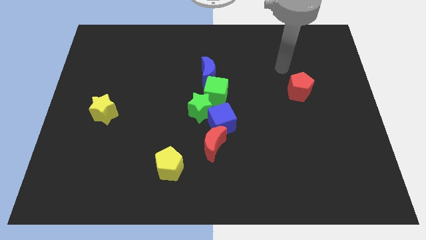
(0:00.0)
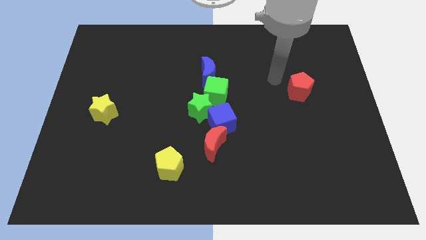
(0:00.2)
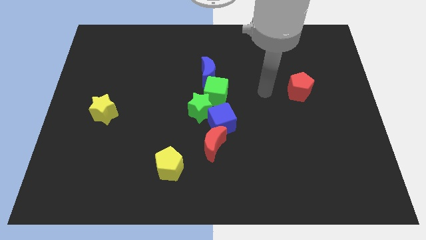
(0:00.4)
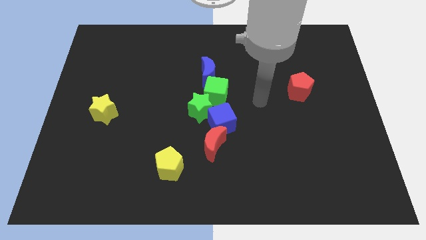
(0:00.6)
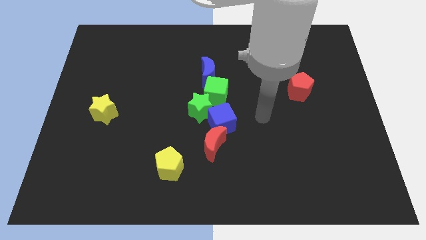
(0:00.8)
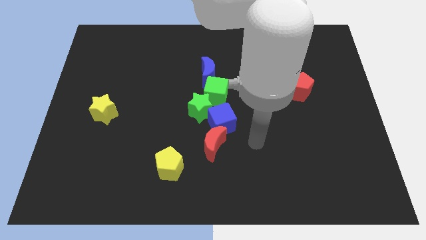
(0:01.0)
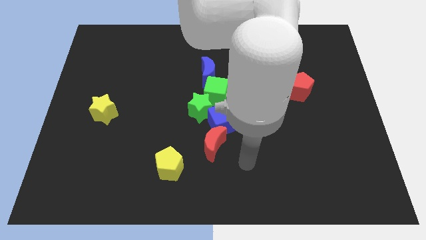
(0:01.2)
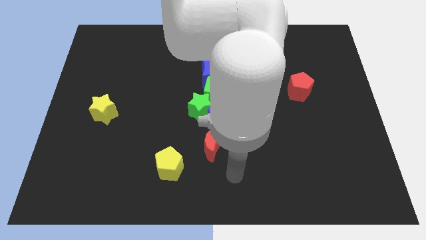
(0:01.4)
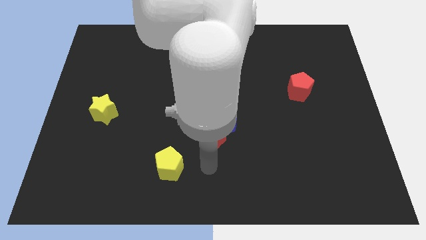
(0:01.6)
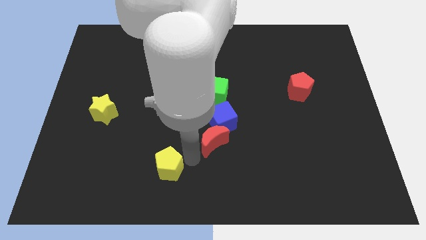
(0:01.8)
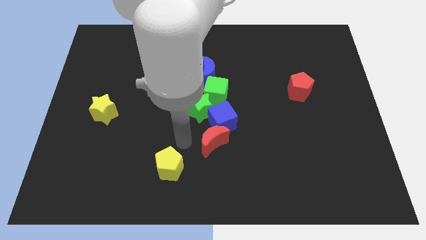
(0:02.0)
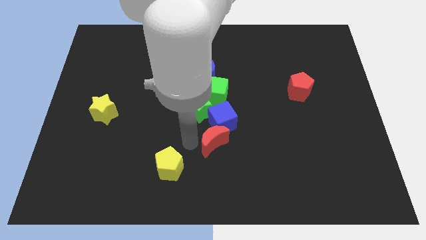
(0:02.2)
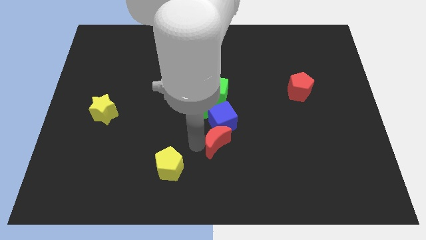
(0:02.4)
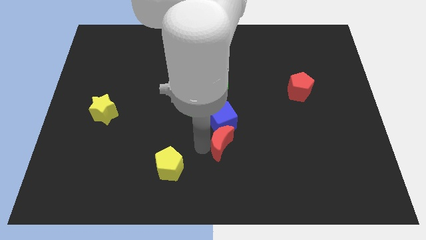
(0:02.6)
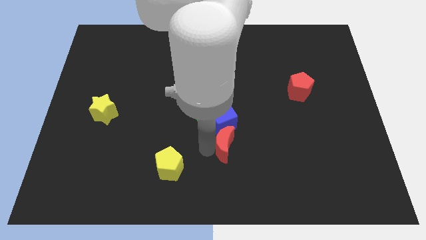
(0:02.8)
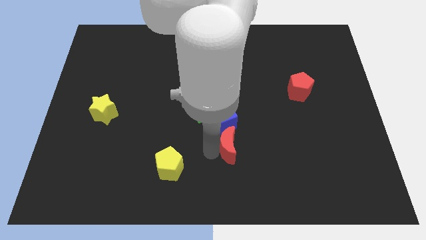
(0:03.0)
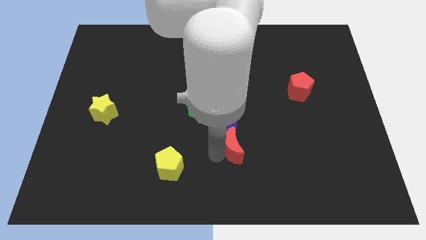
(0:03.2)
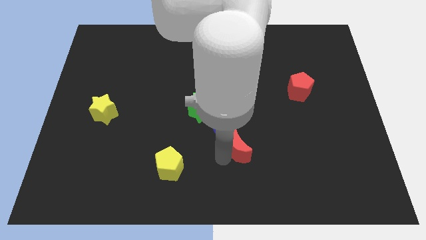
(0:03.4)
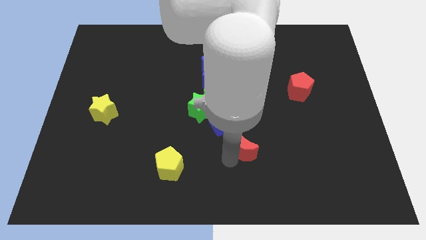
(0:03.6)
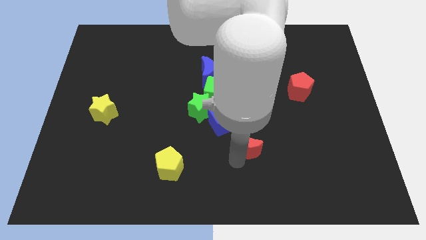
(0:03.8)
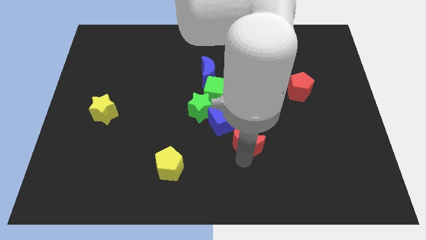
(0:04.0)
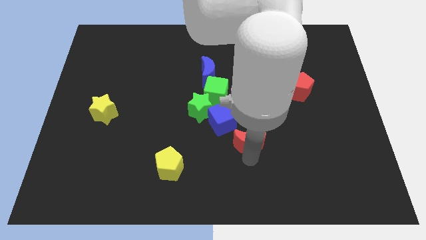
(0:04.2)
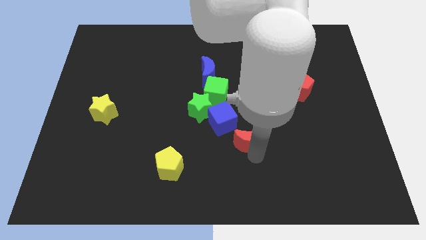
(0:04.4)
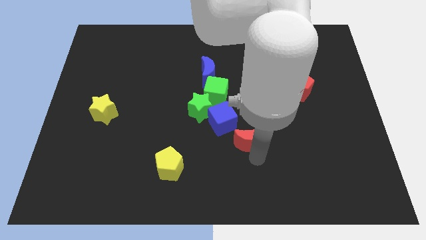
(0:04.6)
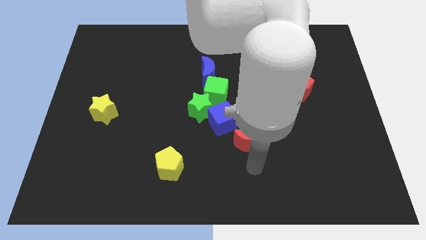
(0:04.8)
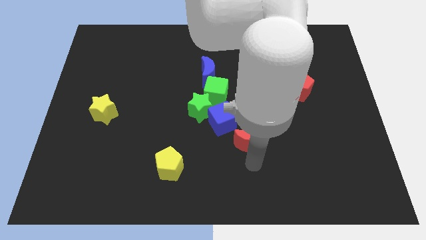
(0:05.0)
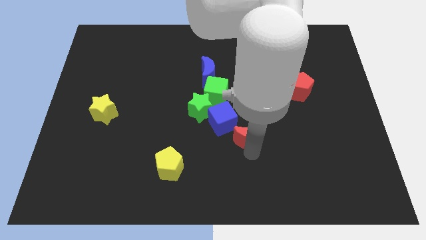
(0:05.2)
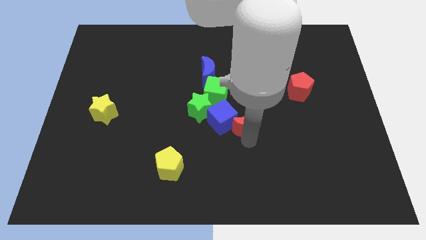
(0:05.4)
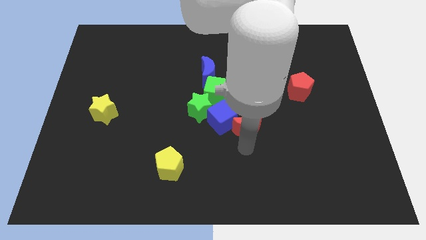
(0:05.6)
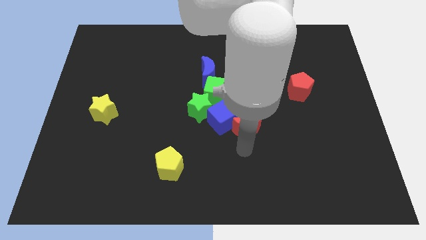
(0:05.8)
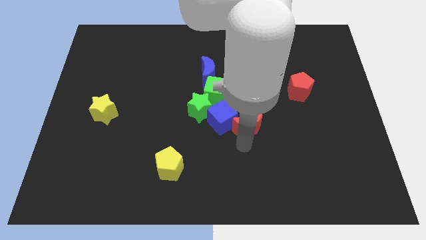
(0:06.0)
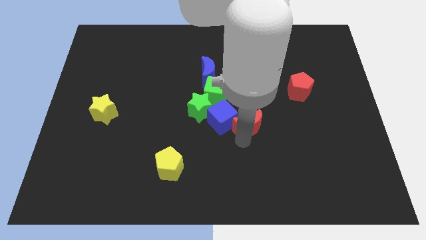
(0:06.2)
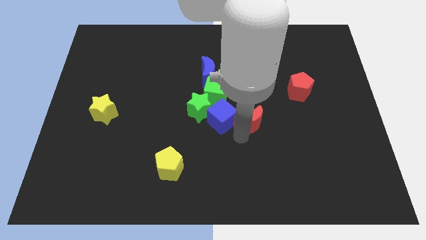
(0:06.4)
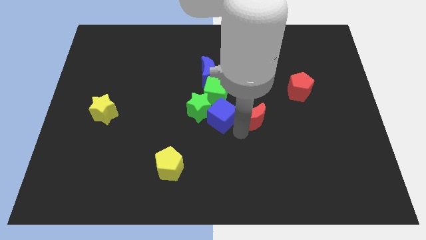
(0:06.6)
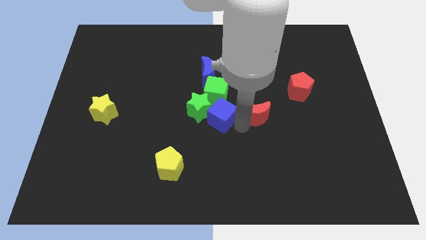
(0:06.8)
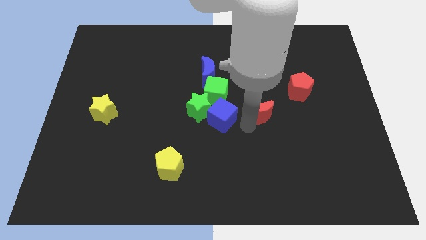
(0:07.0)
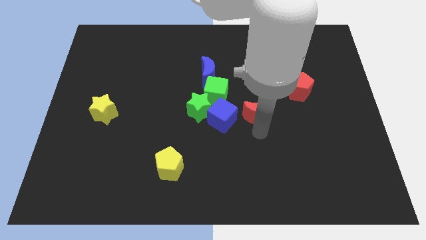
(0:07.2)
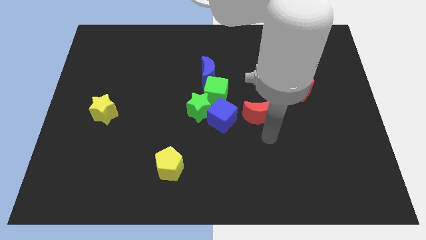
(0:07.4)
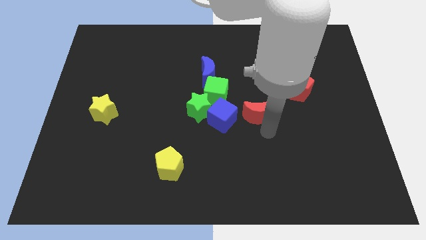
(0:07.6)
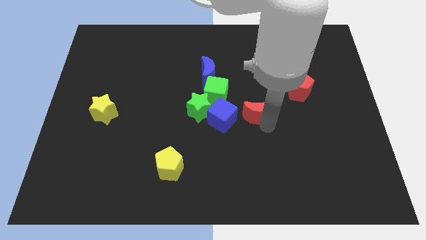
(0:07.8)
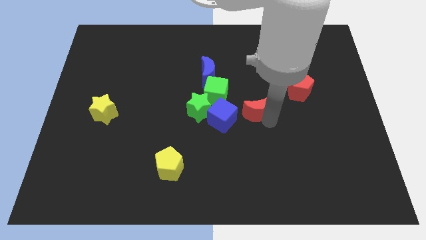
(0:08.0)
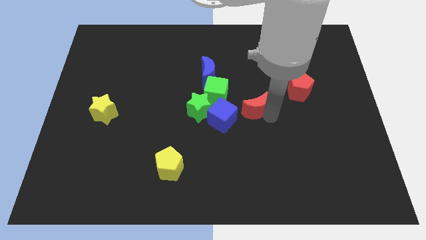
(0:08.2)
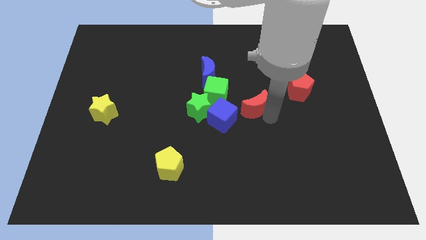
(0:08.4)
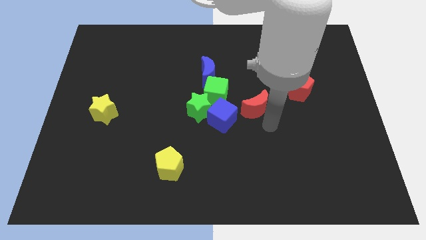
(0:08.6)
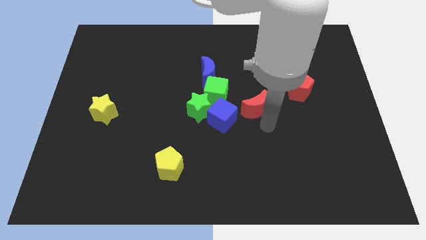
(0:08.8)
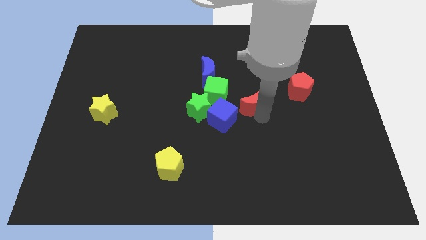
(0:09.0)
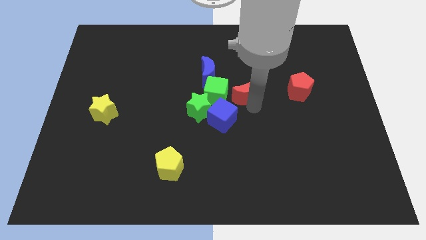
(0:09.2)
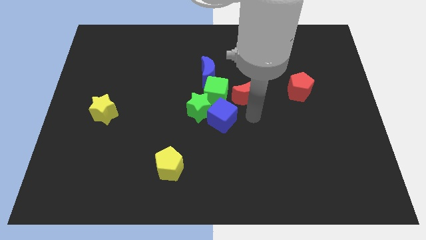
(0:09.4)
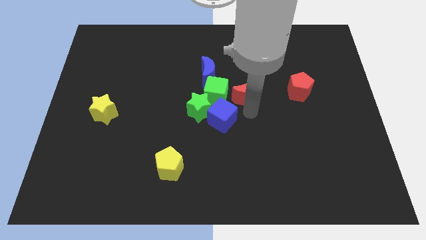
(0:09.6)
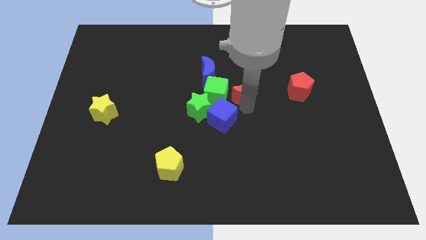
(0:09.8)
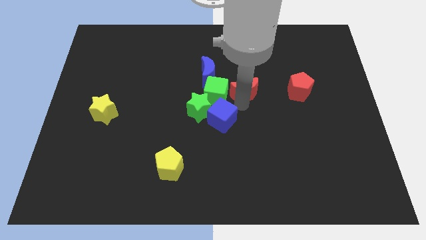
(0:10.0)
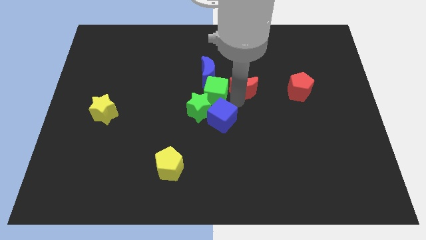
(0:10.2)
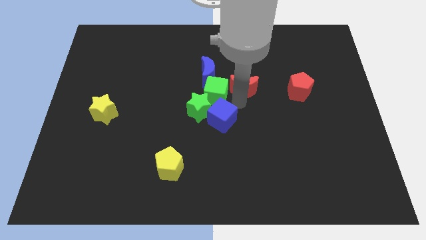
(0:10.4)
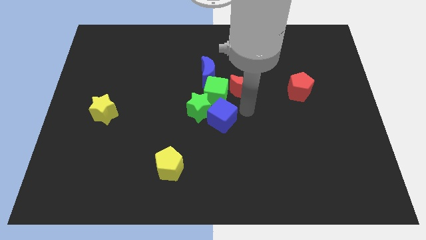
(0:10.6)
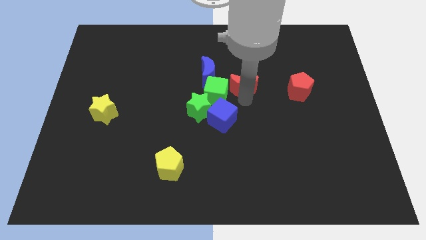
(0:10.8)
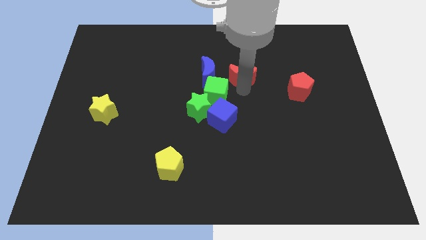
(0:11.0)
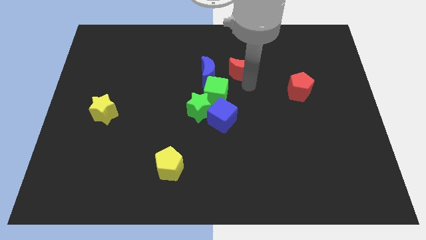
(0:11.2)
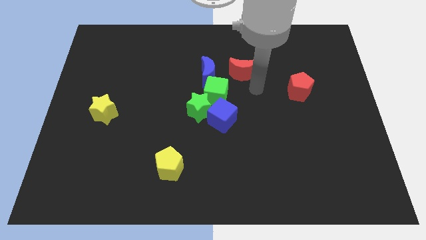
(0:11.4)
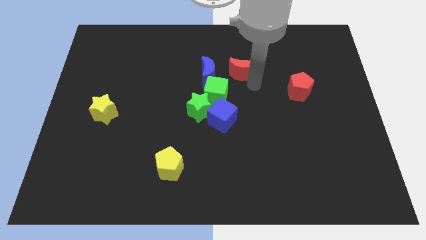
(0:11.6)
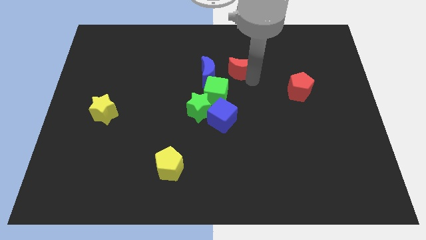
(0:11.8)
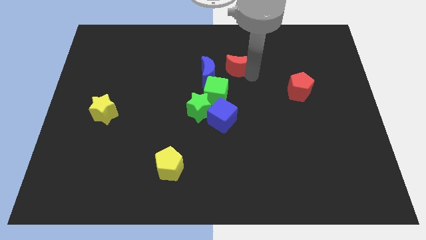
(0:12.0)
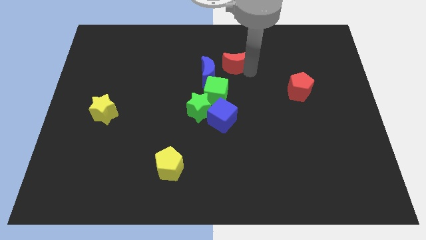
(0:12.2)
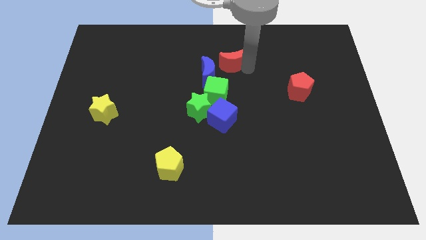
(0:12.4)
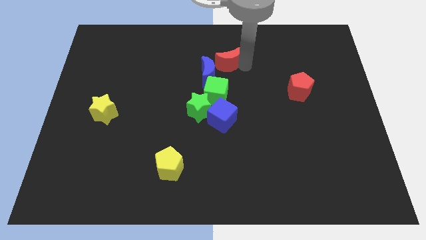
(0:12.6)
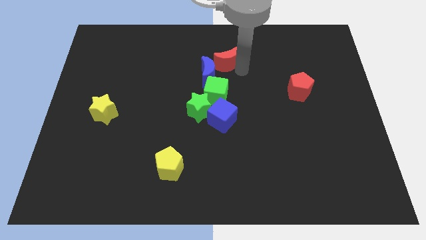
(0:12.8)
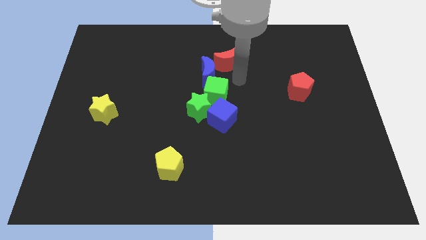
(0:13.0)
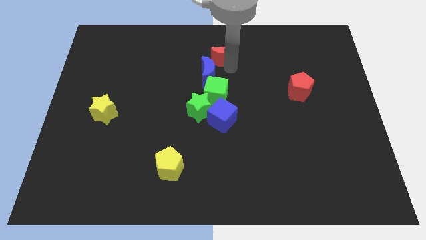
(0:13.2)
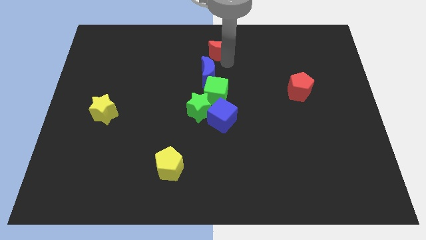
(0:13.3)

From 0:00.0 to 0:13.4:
slide the red moon to the towards your base

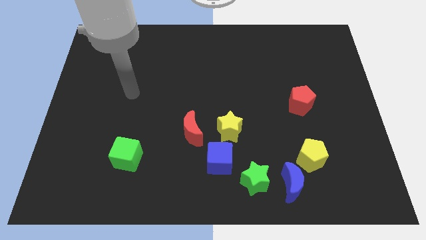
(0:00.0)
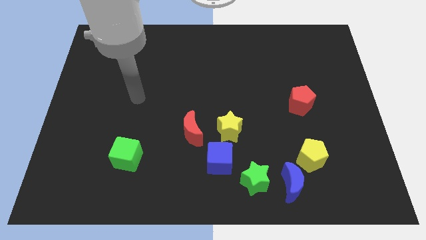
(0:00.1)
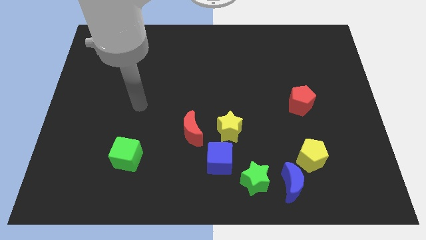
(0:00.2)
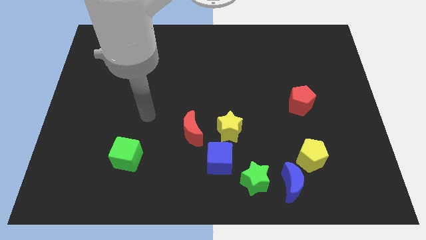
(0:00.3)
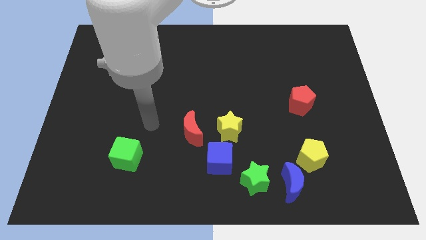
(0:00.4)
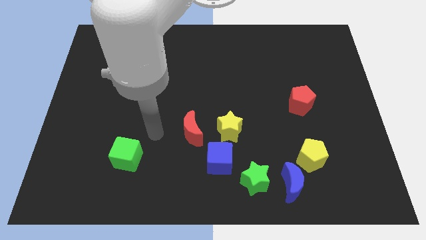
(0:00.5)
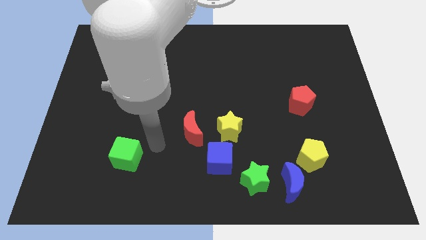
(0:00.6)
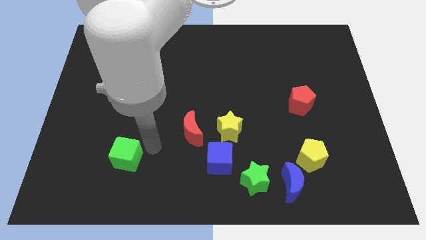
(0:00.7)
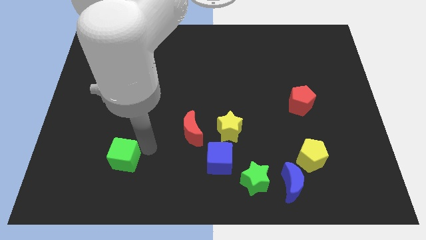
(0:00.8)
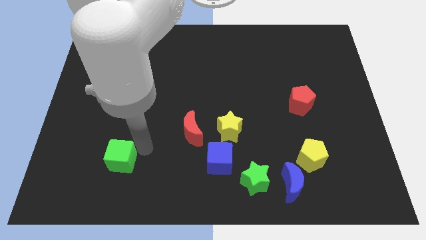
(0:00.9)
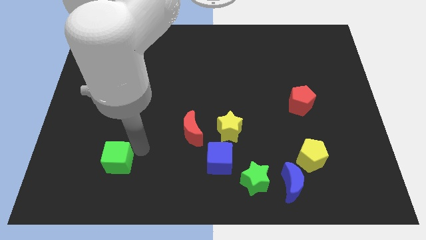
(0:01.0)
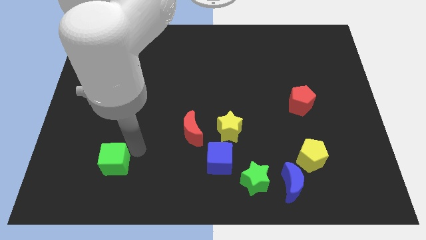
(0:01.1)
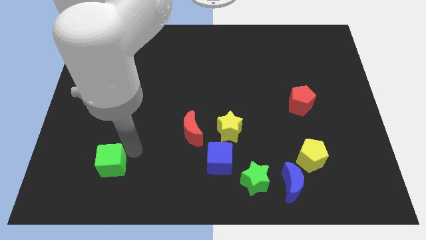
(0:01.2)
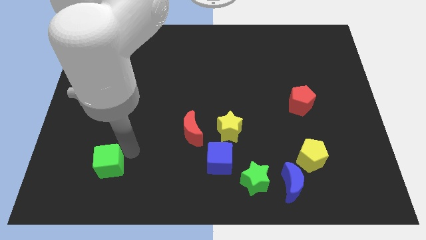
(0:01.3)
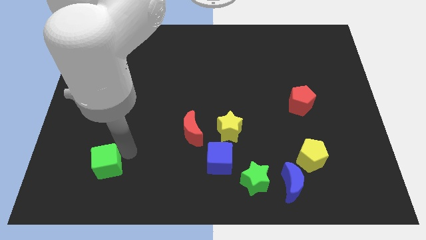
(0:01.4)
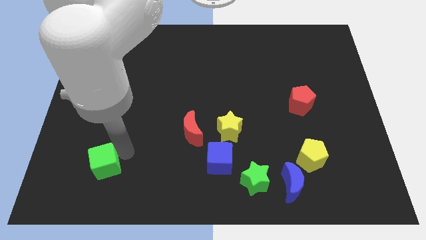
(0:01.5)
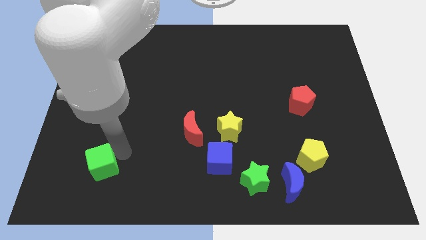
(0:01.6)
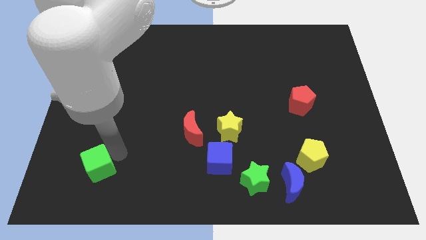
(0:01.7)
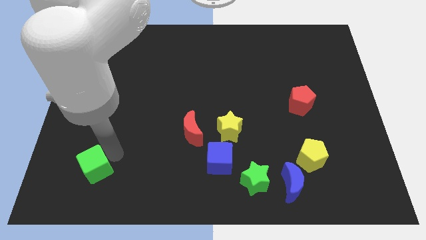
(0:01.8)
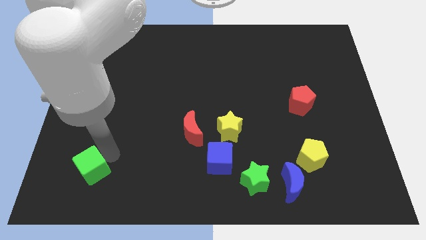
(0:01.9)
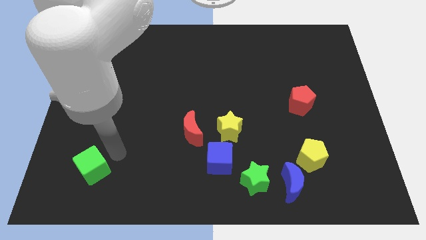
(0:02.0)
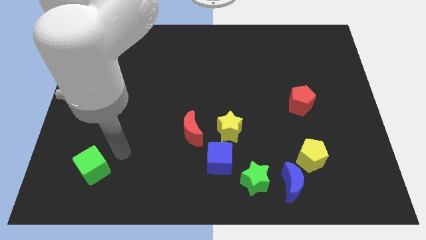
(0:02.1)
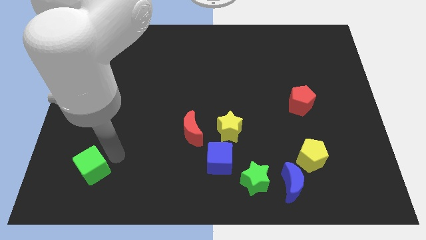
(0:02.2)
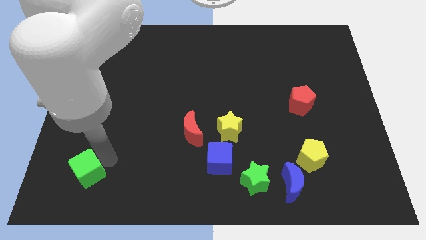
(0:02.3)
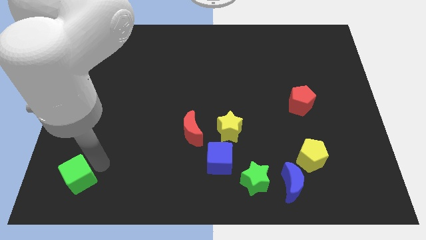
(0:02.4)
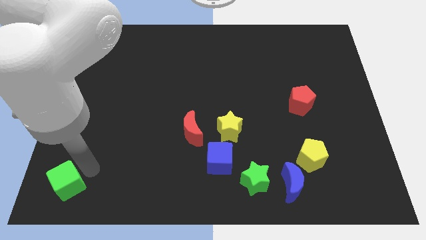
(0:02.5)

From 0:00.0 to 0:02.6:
move the green cube to the bottom left corner
